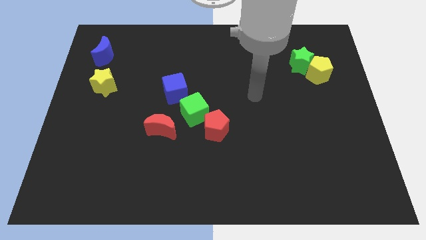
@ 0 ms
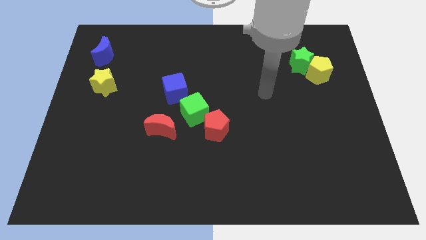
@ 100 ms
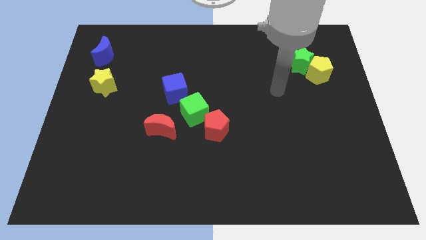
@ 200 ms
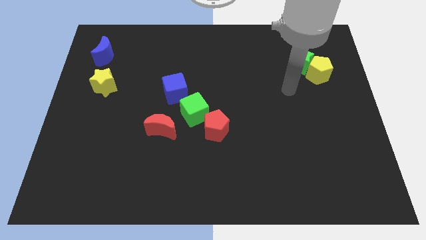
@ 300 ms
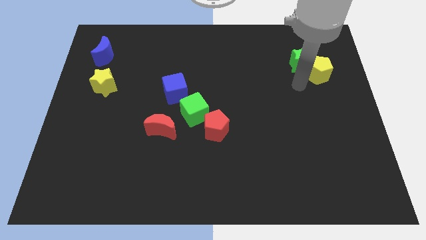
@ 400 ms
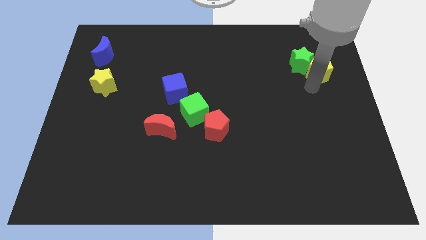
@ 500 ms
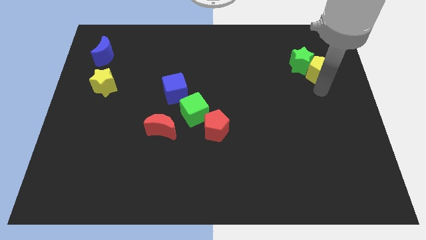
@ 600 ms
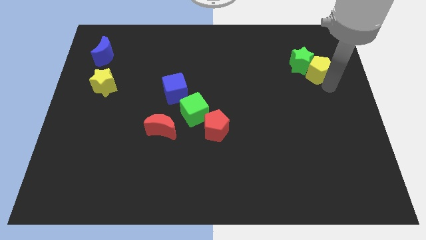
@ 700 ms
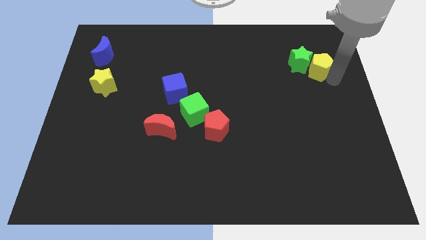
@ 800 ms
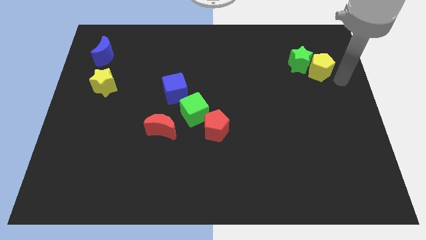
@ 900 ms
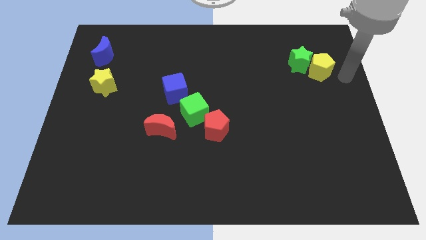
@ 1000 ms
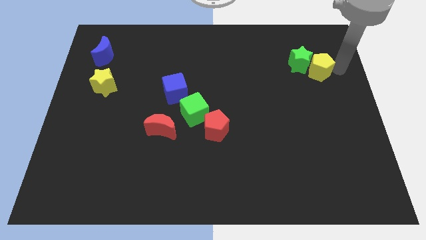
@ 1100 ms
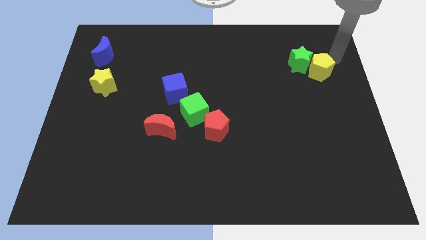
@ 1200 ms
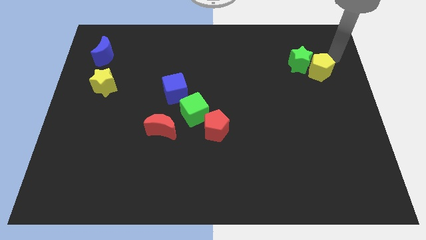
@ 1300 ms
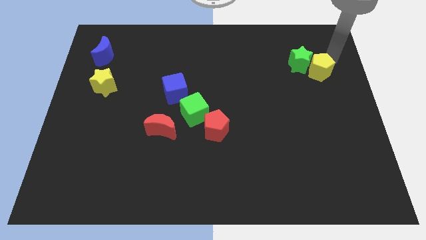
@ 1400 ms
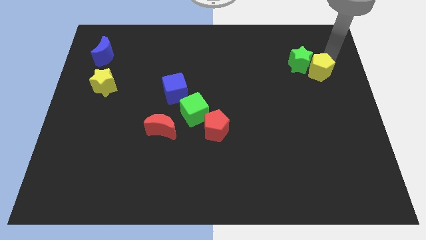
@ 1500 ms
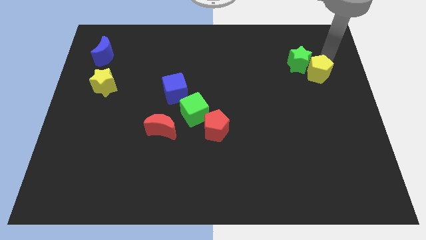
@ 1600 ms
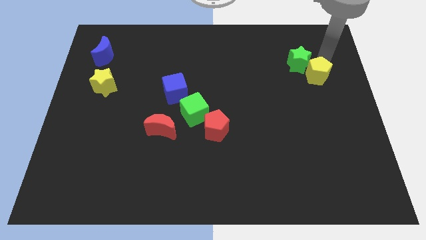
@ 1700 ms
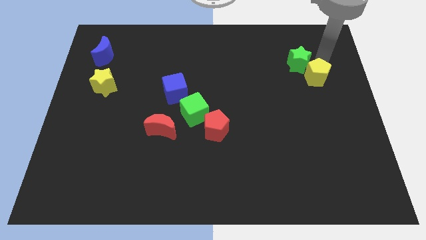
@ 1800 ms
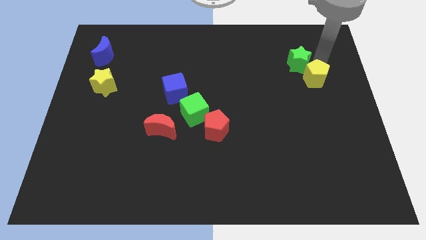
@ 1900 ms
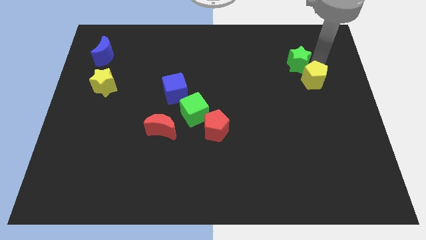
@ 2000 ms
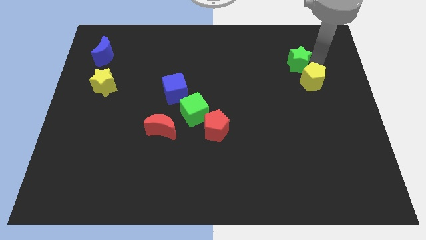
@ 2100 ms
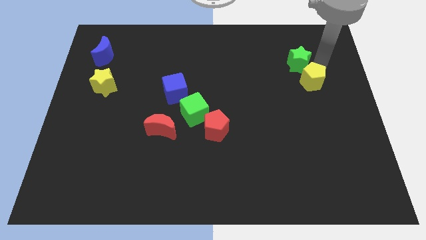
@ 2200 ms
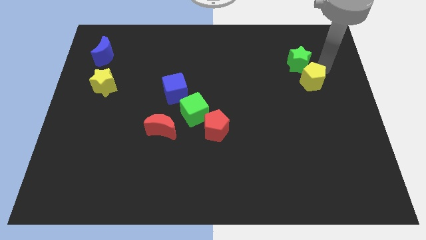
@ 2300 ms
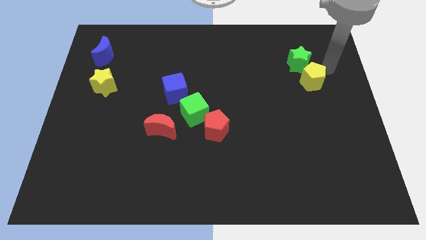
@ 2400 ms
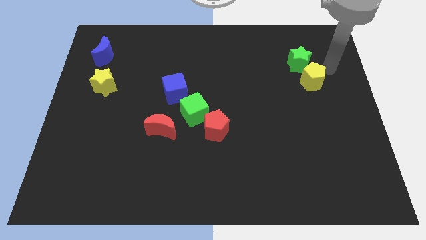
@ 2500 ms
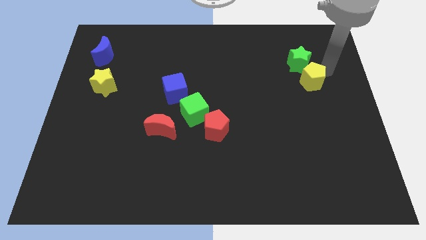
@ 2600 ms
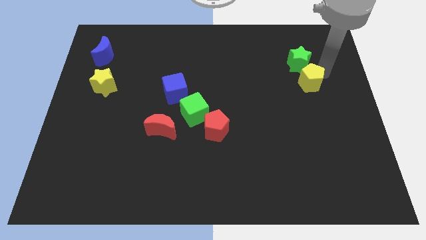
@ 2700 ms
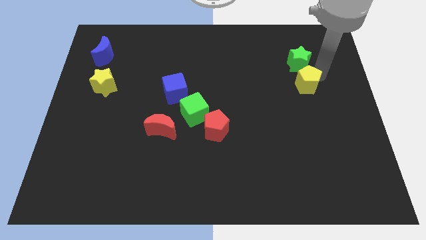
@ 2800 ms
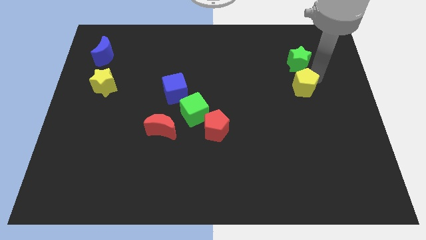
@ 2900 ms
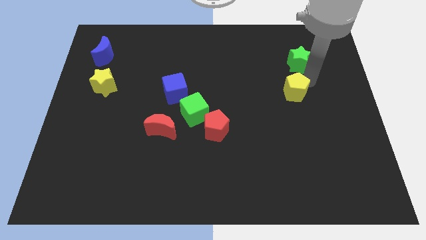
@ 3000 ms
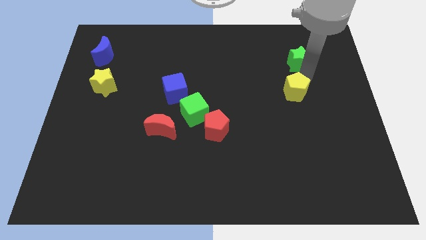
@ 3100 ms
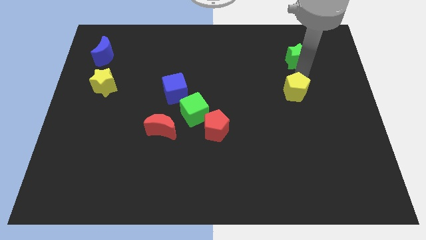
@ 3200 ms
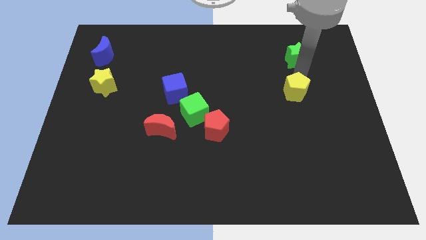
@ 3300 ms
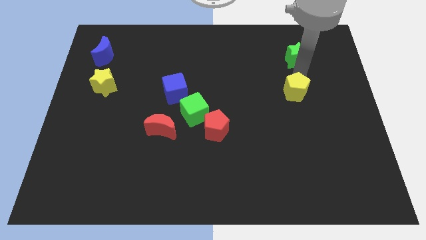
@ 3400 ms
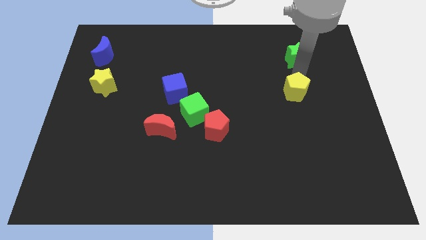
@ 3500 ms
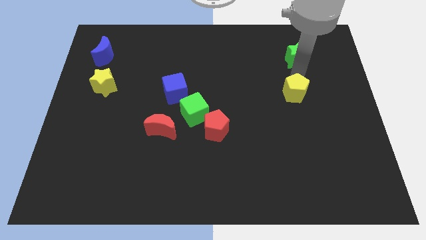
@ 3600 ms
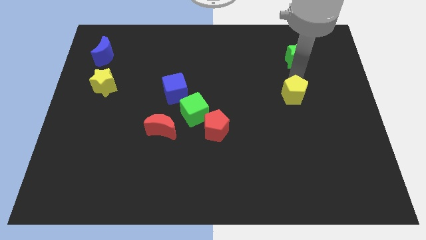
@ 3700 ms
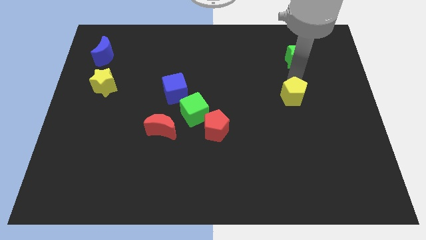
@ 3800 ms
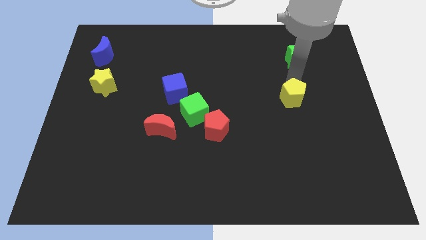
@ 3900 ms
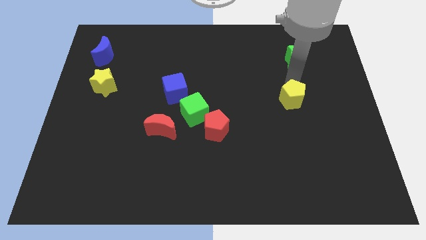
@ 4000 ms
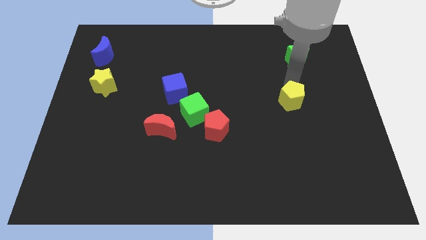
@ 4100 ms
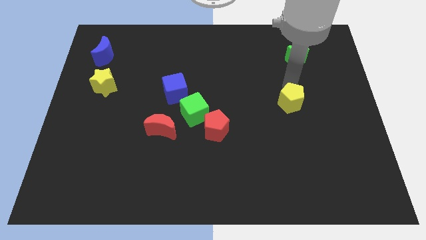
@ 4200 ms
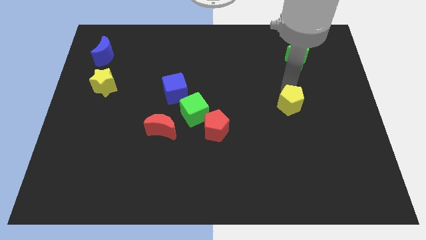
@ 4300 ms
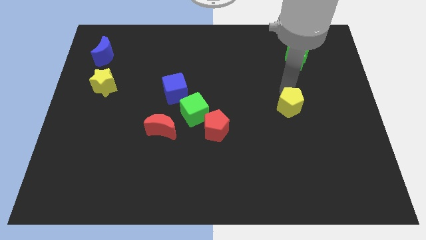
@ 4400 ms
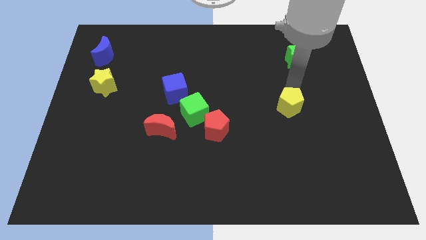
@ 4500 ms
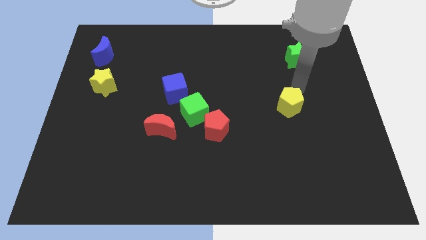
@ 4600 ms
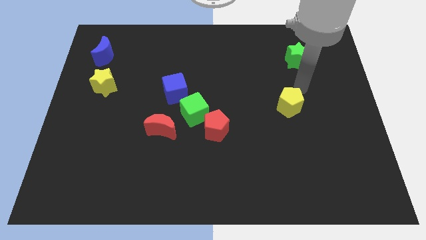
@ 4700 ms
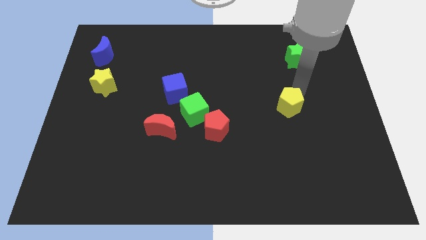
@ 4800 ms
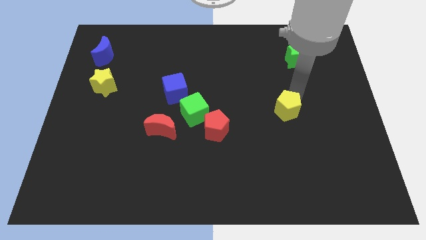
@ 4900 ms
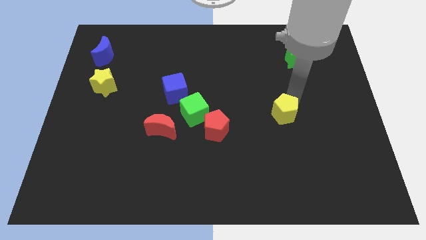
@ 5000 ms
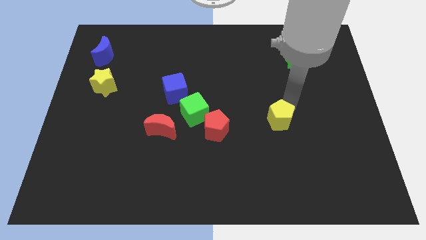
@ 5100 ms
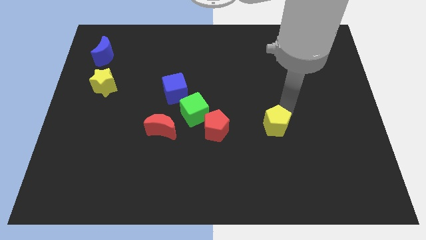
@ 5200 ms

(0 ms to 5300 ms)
slide the yellow pentagon downwards and left

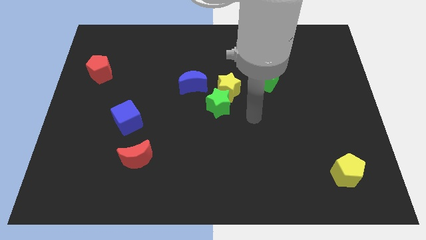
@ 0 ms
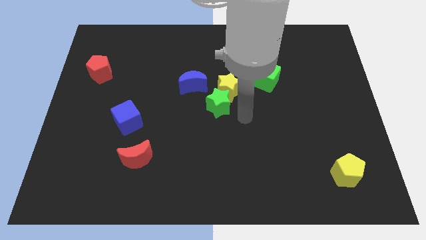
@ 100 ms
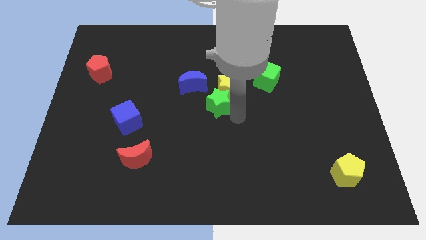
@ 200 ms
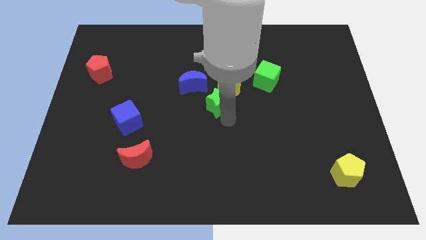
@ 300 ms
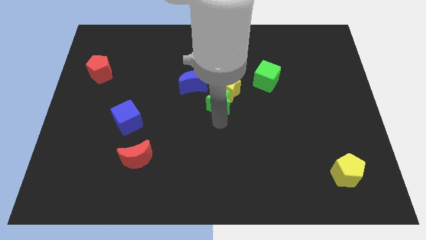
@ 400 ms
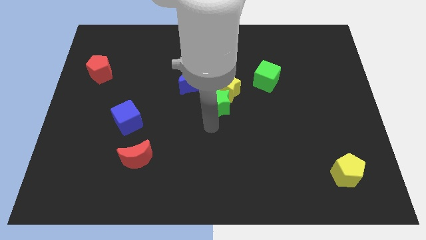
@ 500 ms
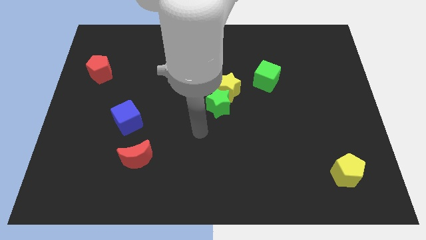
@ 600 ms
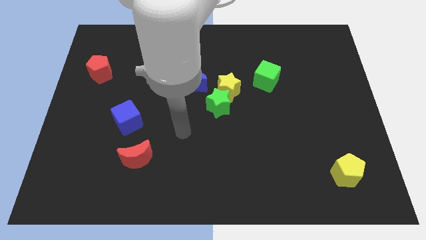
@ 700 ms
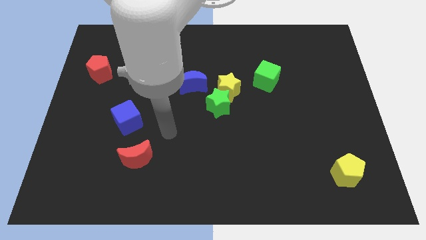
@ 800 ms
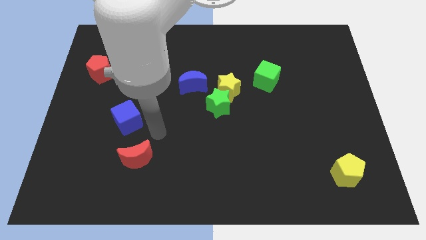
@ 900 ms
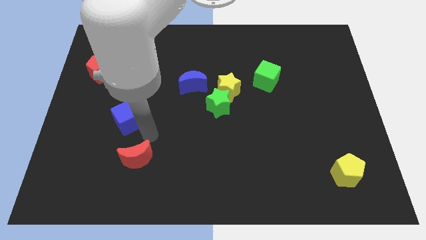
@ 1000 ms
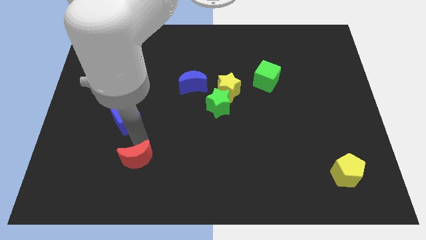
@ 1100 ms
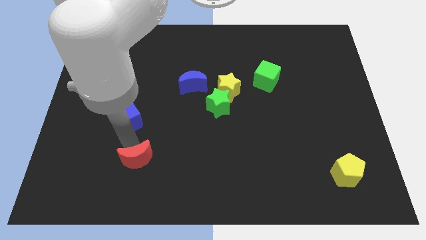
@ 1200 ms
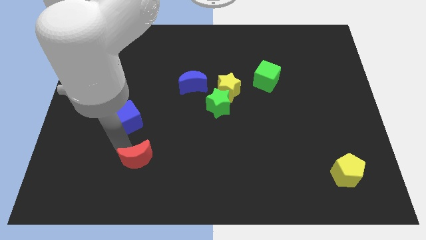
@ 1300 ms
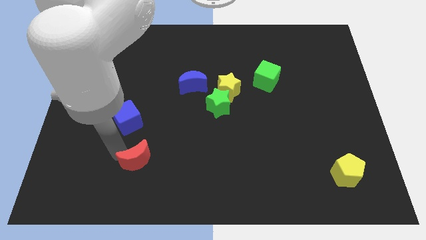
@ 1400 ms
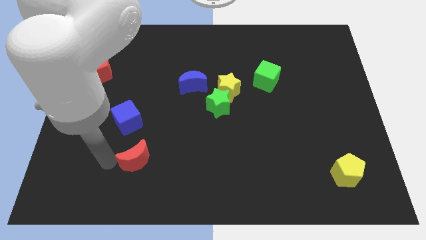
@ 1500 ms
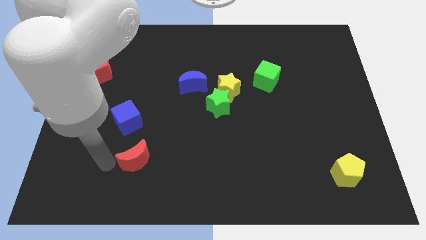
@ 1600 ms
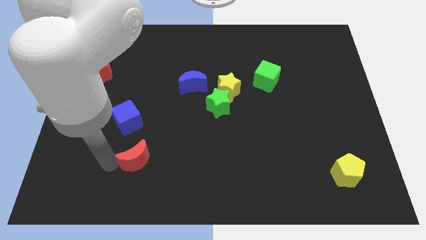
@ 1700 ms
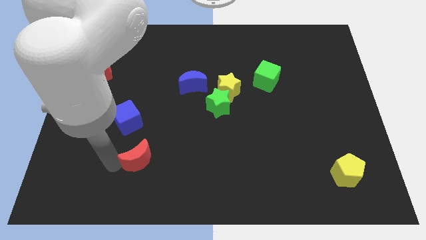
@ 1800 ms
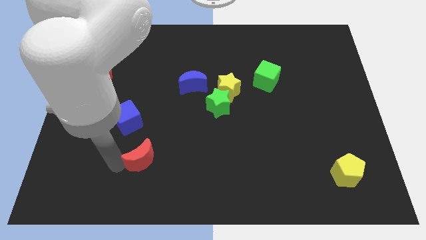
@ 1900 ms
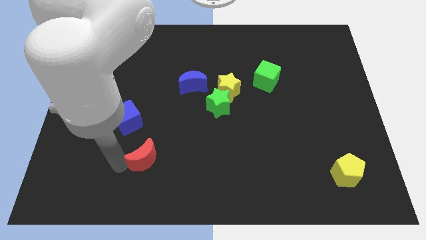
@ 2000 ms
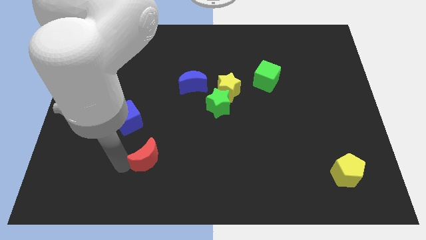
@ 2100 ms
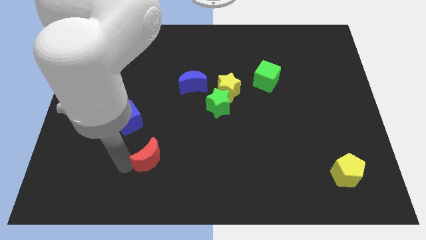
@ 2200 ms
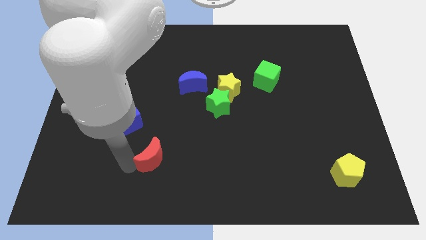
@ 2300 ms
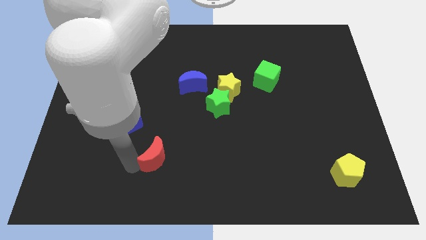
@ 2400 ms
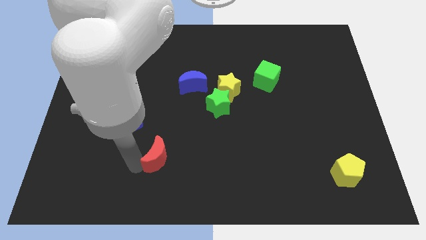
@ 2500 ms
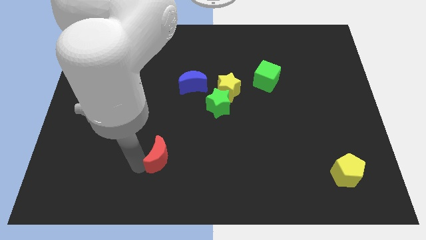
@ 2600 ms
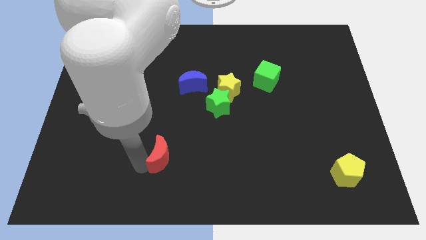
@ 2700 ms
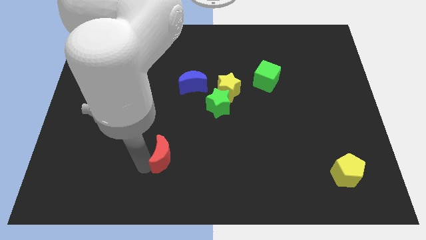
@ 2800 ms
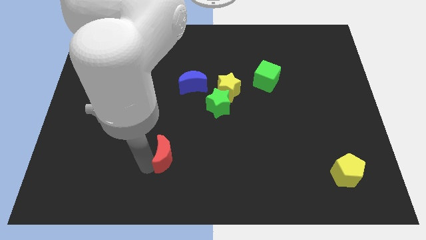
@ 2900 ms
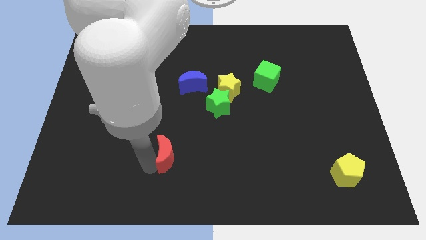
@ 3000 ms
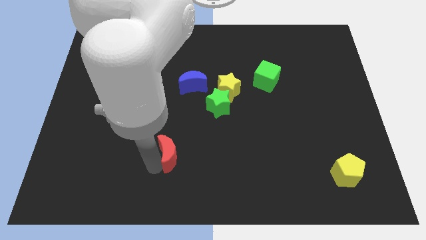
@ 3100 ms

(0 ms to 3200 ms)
push the red moon to the right a bit

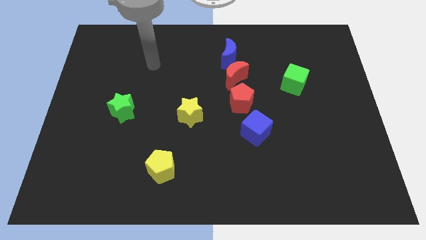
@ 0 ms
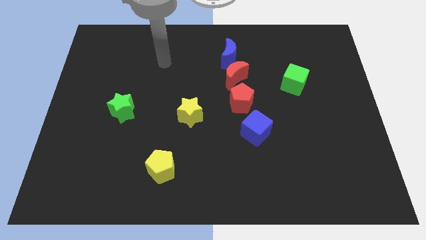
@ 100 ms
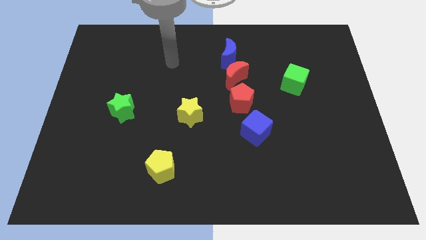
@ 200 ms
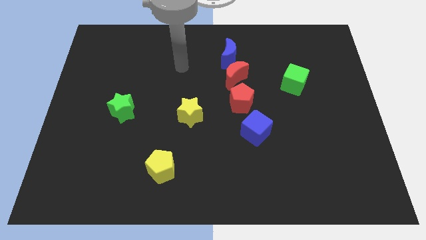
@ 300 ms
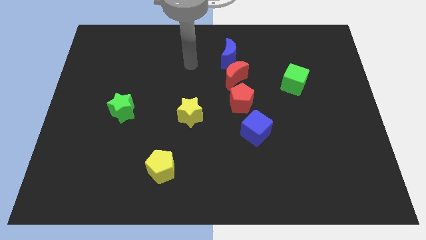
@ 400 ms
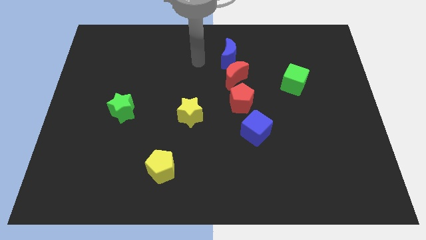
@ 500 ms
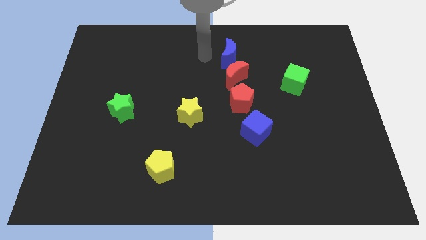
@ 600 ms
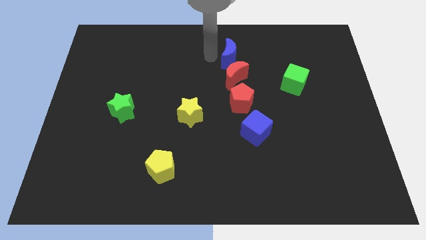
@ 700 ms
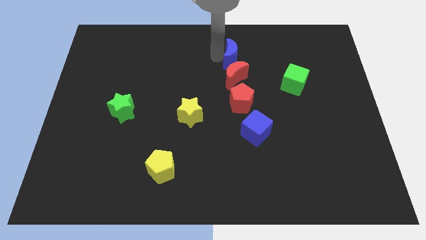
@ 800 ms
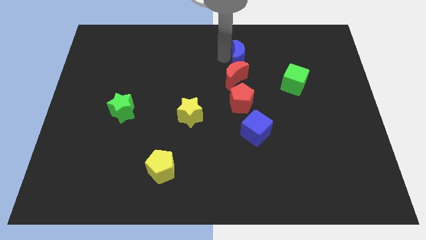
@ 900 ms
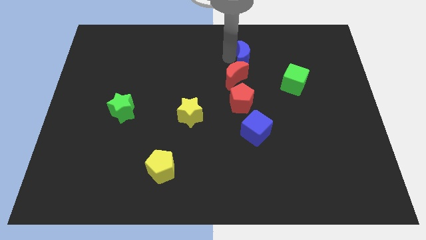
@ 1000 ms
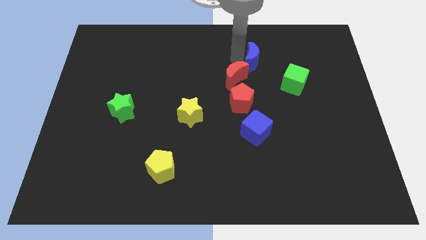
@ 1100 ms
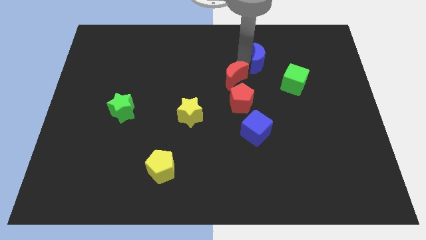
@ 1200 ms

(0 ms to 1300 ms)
slightly slide the blue moon right
